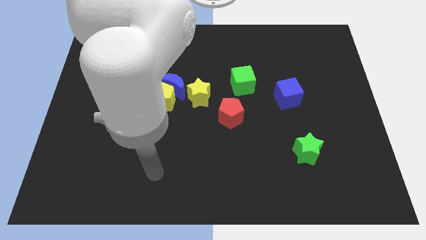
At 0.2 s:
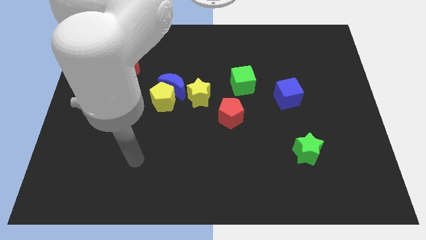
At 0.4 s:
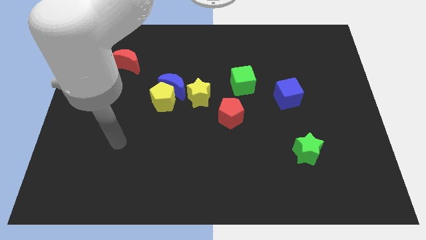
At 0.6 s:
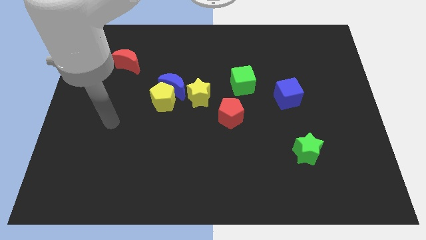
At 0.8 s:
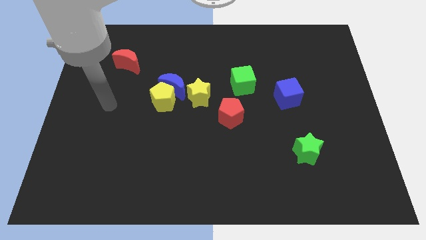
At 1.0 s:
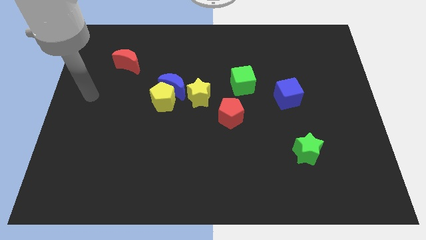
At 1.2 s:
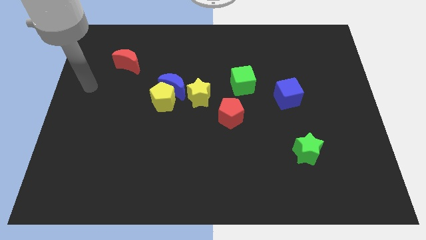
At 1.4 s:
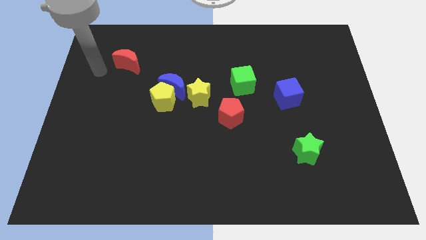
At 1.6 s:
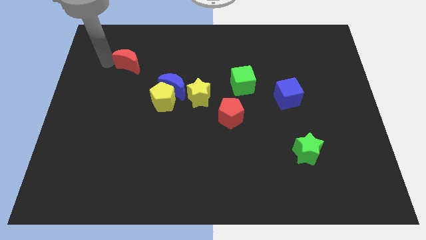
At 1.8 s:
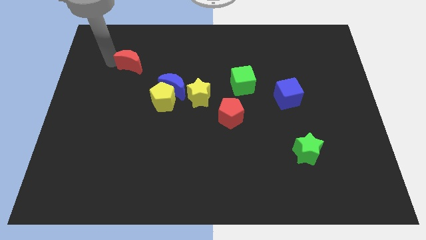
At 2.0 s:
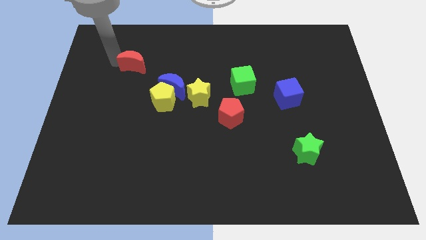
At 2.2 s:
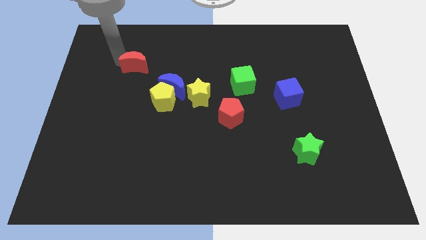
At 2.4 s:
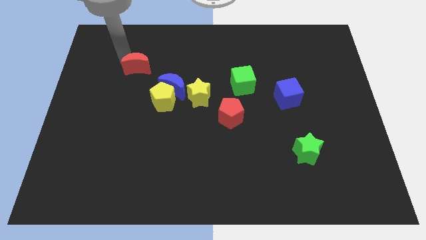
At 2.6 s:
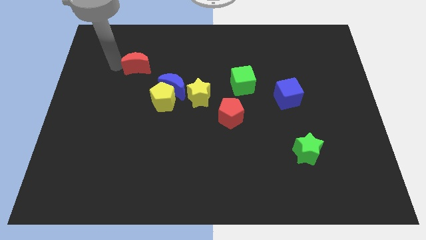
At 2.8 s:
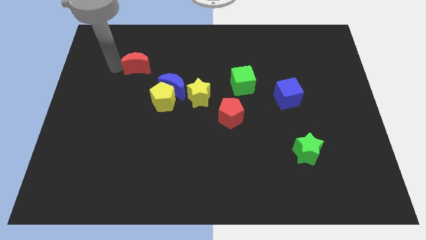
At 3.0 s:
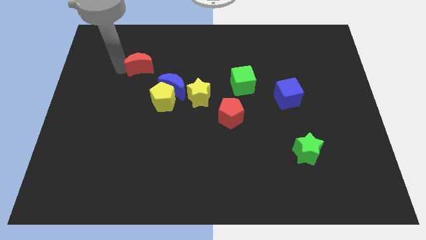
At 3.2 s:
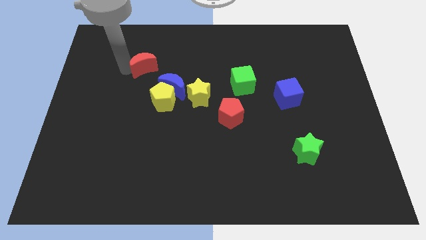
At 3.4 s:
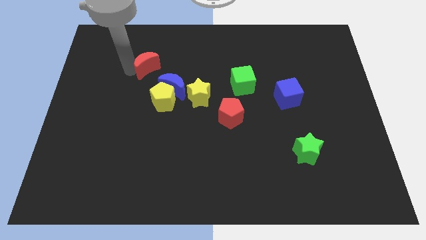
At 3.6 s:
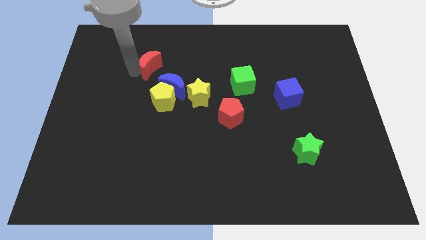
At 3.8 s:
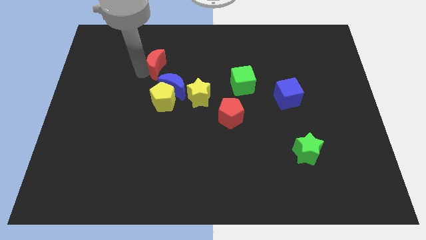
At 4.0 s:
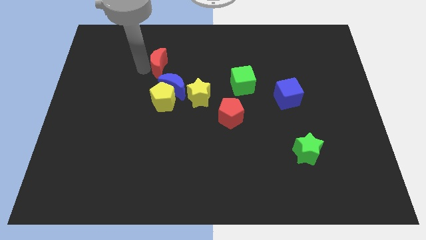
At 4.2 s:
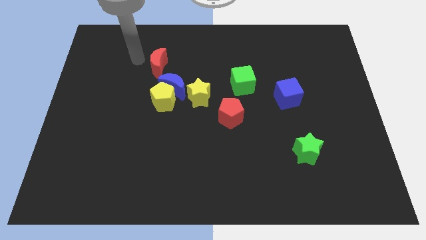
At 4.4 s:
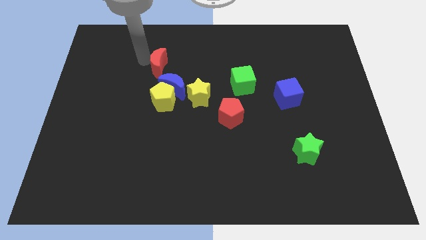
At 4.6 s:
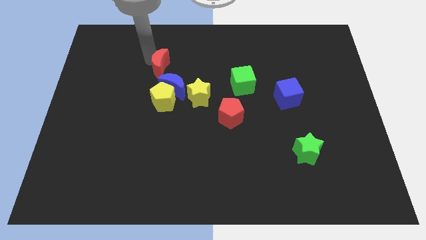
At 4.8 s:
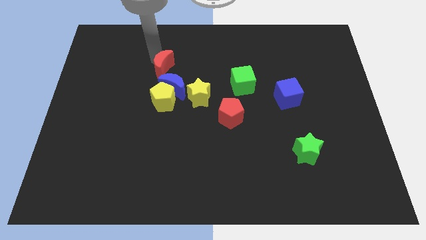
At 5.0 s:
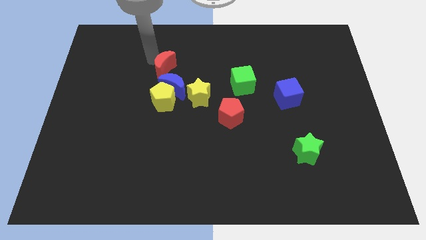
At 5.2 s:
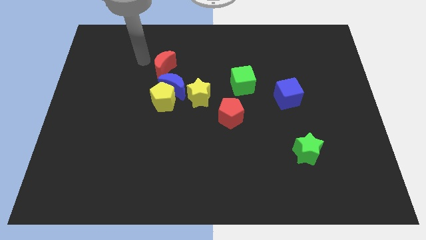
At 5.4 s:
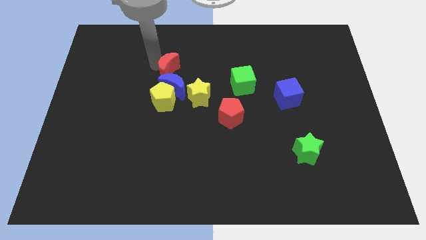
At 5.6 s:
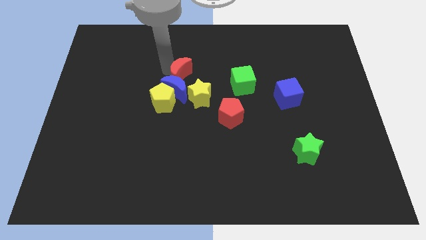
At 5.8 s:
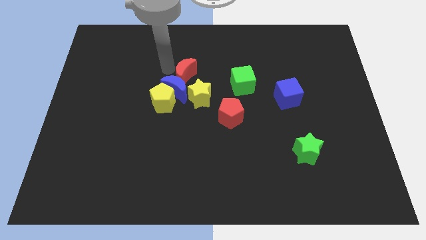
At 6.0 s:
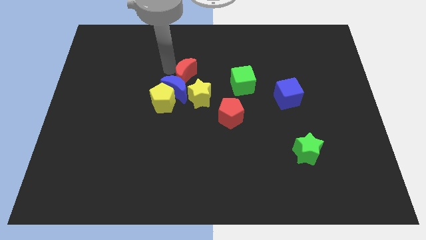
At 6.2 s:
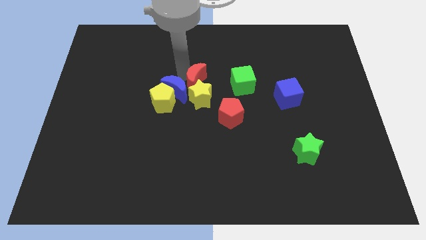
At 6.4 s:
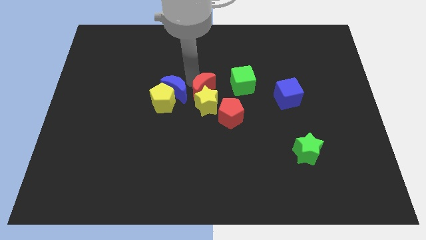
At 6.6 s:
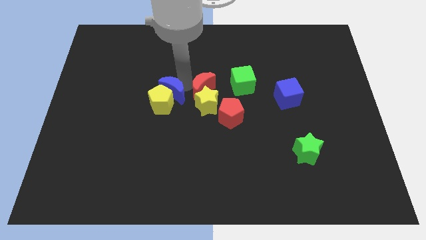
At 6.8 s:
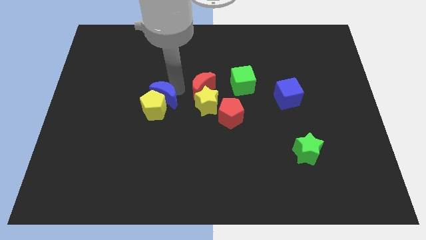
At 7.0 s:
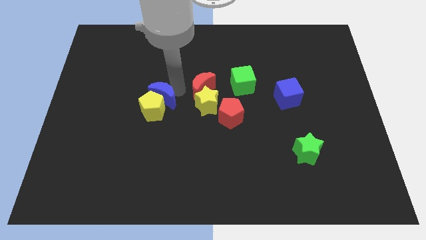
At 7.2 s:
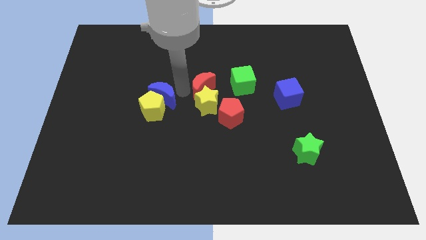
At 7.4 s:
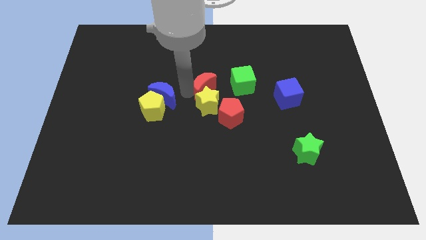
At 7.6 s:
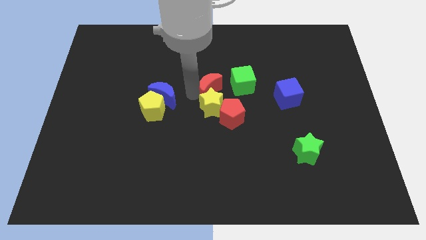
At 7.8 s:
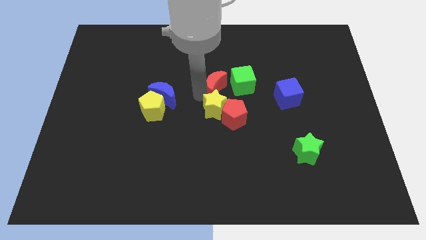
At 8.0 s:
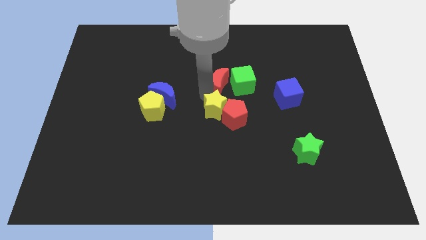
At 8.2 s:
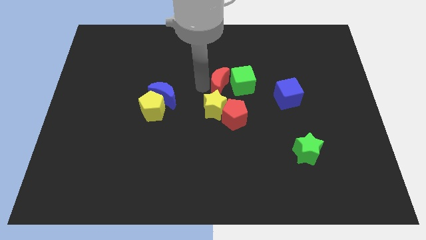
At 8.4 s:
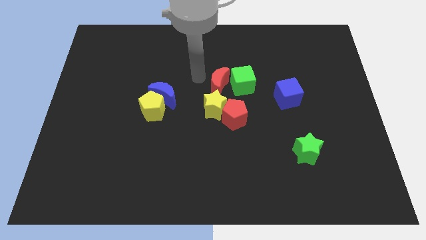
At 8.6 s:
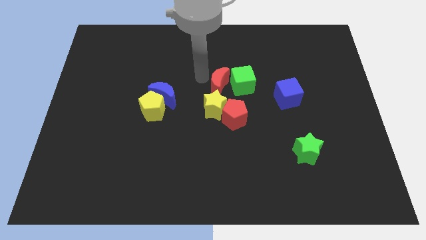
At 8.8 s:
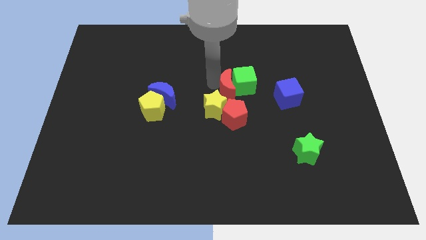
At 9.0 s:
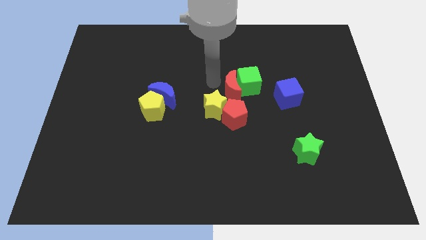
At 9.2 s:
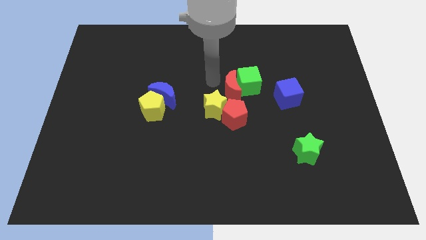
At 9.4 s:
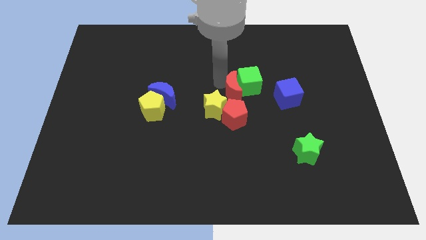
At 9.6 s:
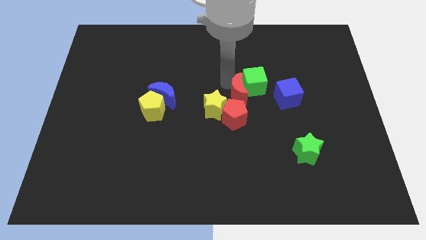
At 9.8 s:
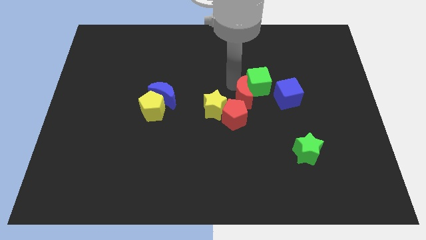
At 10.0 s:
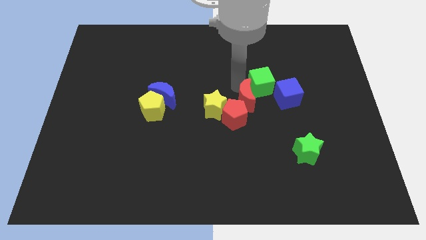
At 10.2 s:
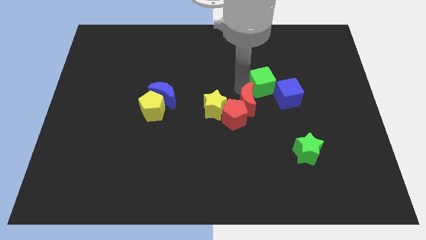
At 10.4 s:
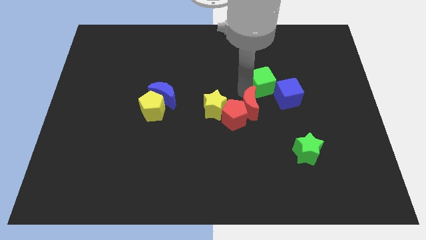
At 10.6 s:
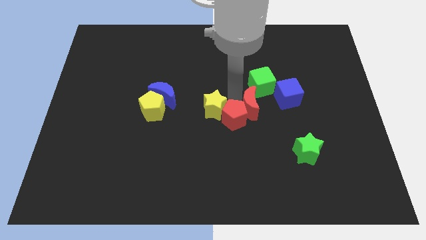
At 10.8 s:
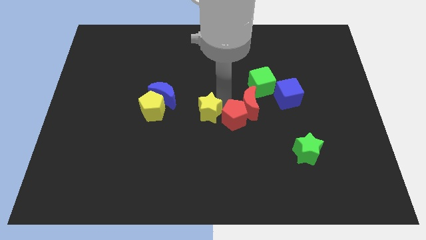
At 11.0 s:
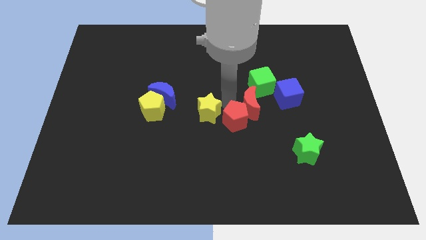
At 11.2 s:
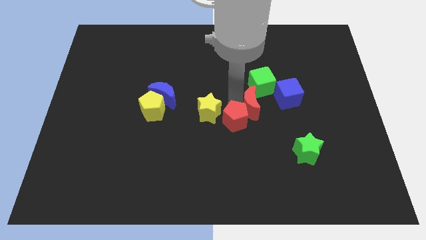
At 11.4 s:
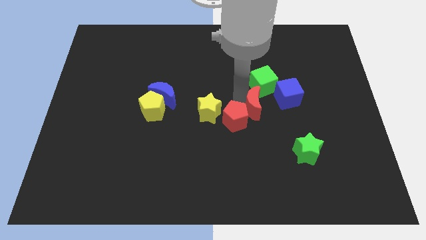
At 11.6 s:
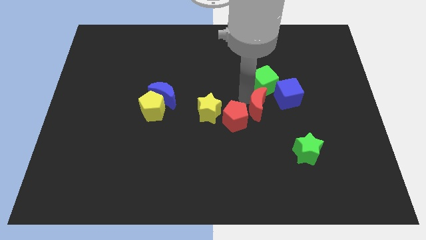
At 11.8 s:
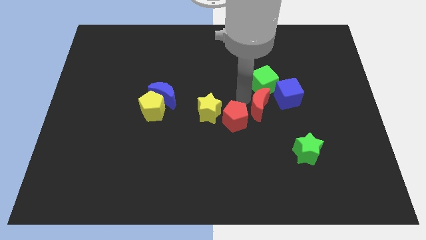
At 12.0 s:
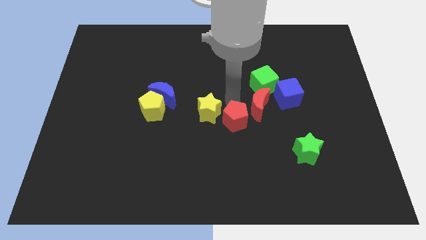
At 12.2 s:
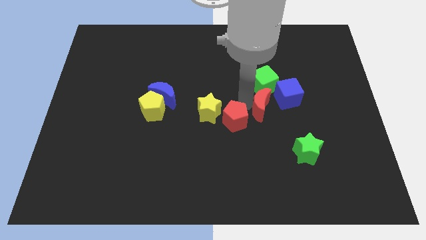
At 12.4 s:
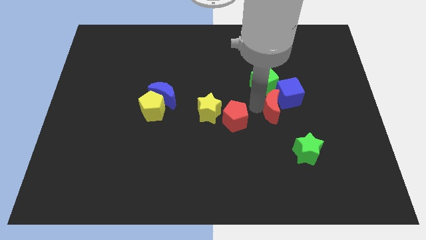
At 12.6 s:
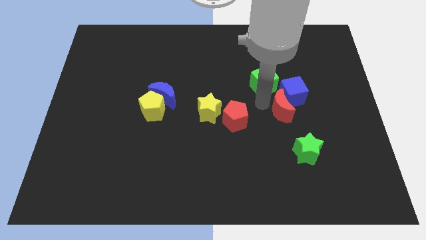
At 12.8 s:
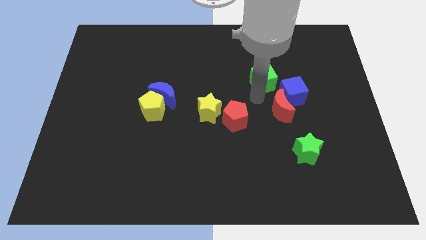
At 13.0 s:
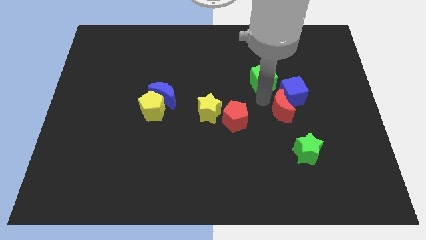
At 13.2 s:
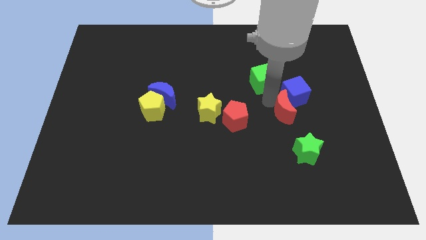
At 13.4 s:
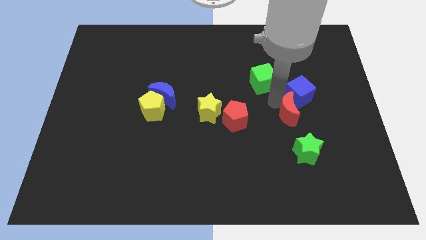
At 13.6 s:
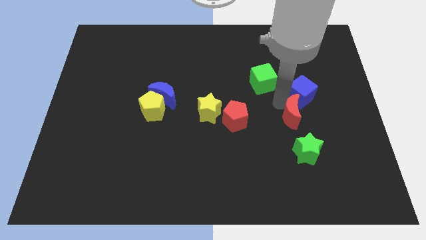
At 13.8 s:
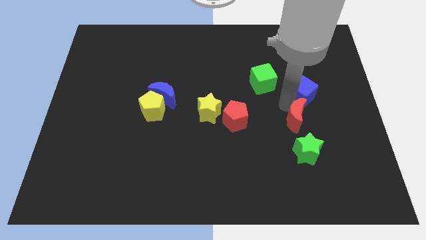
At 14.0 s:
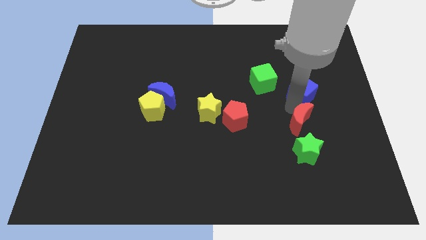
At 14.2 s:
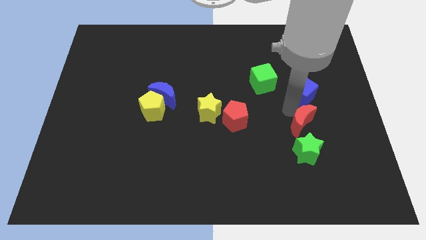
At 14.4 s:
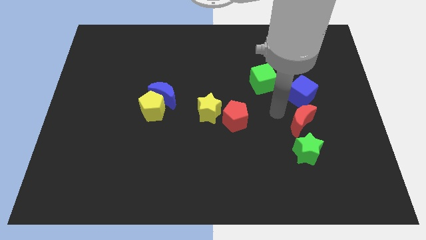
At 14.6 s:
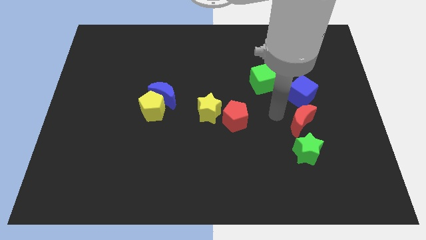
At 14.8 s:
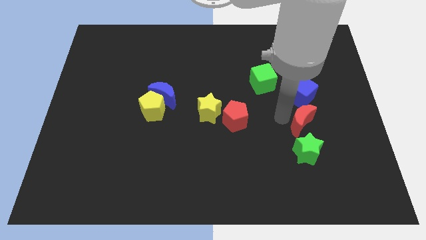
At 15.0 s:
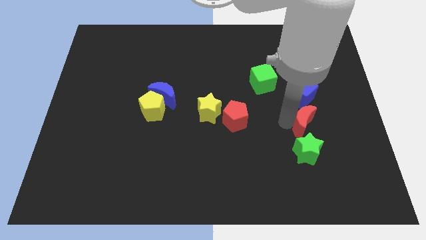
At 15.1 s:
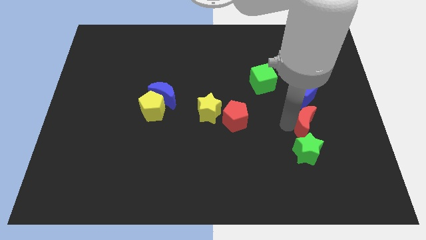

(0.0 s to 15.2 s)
move the red moon to the top right side of the green star

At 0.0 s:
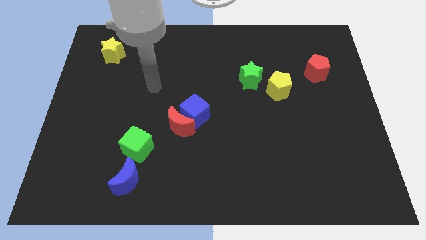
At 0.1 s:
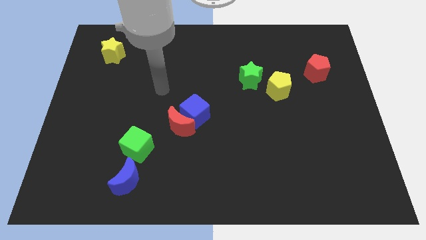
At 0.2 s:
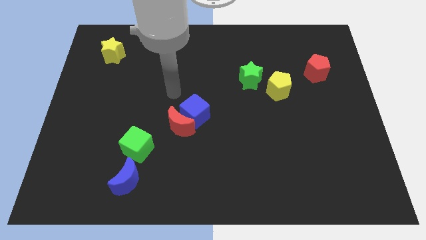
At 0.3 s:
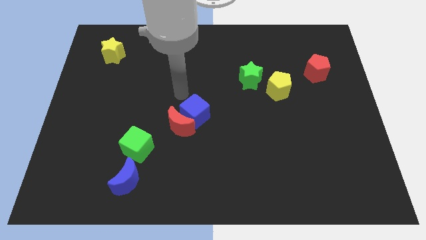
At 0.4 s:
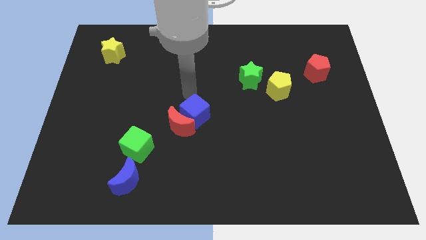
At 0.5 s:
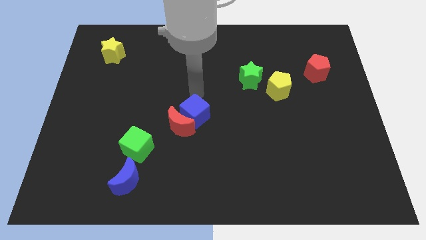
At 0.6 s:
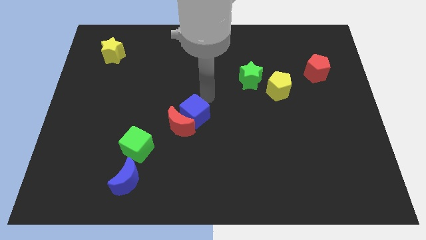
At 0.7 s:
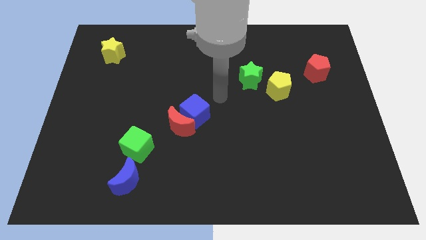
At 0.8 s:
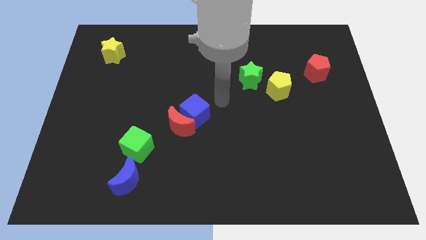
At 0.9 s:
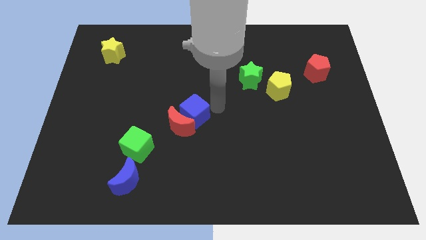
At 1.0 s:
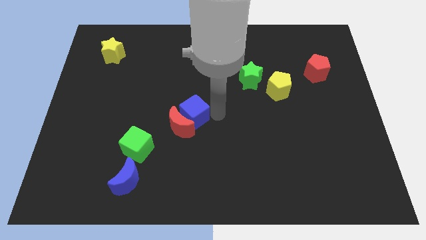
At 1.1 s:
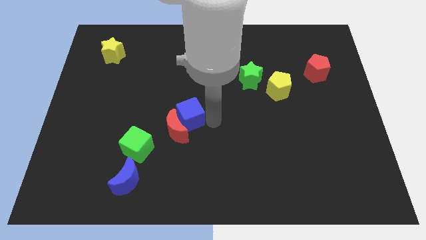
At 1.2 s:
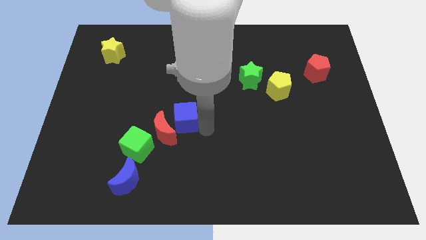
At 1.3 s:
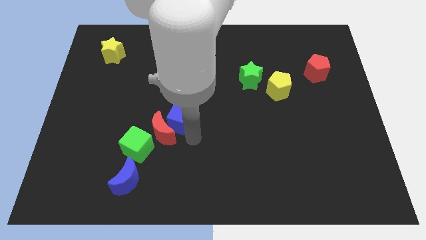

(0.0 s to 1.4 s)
push the red moon to the top side of the green cube
